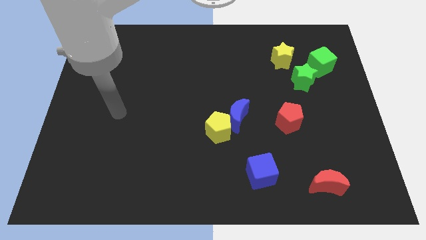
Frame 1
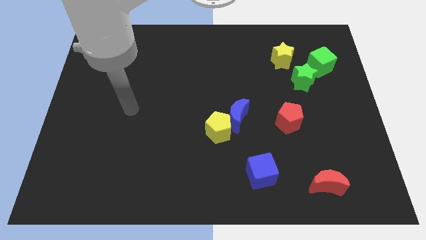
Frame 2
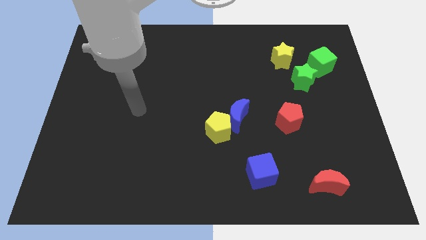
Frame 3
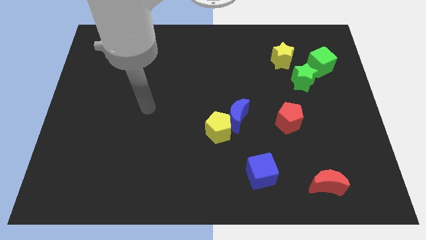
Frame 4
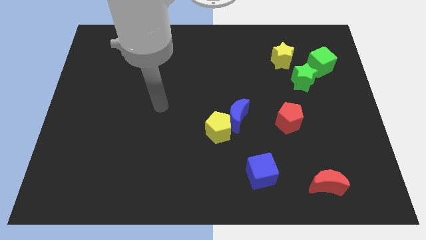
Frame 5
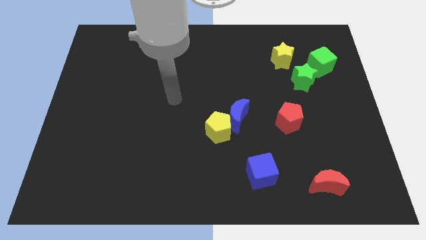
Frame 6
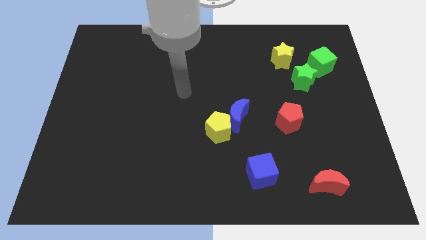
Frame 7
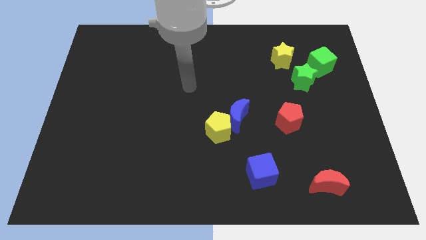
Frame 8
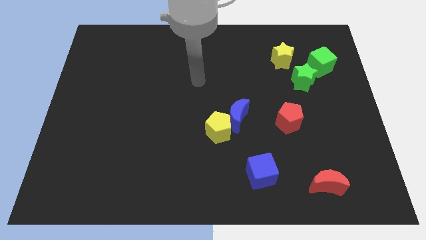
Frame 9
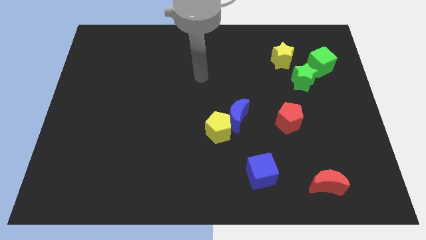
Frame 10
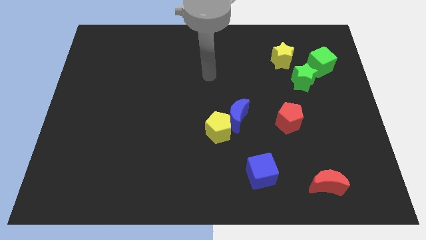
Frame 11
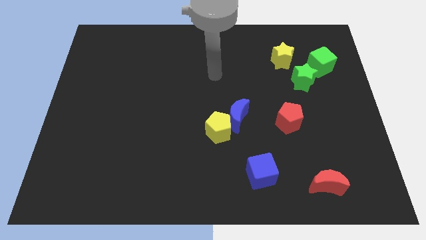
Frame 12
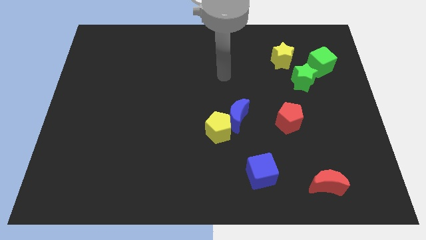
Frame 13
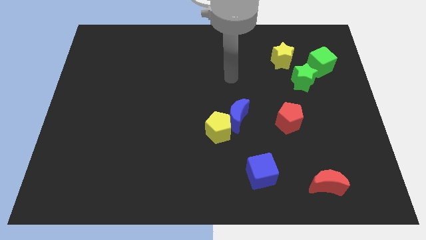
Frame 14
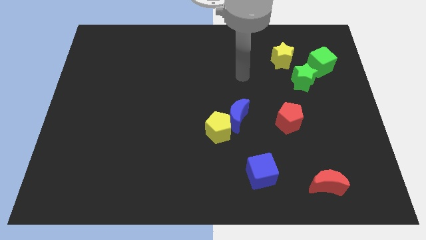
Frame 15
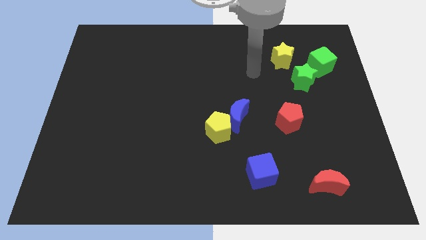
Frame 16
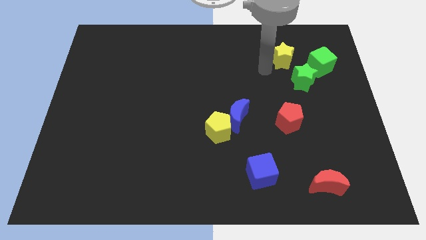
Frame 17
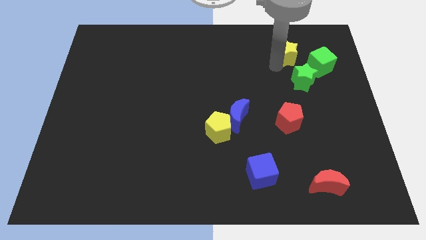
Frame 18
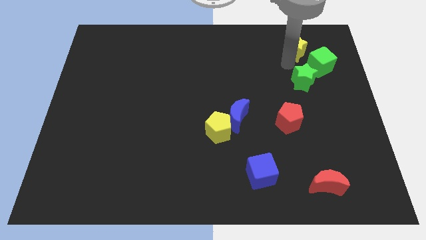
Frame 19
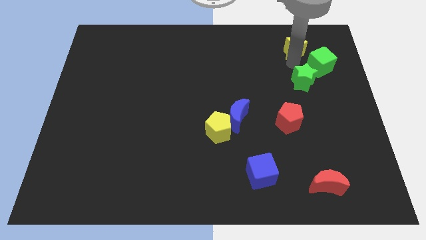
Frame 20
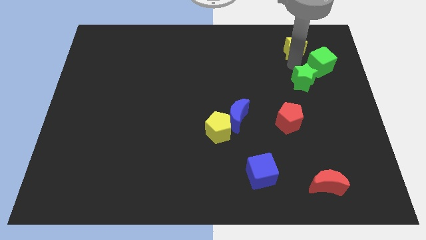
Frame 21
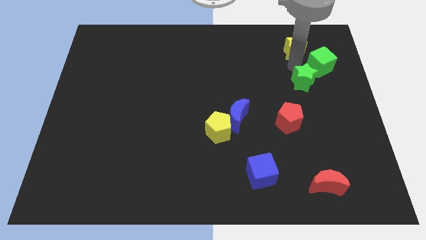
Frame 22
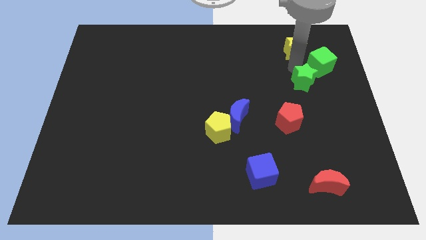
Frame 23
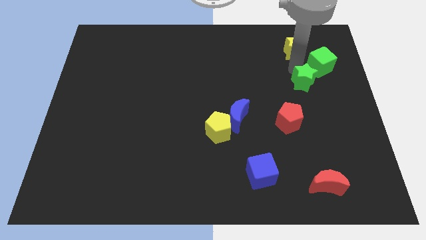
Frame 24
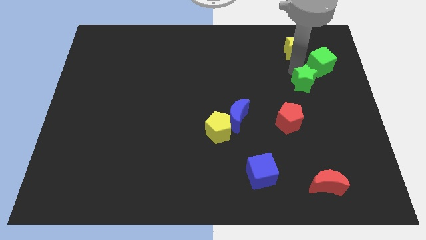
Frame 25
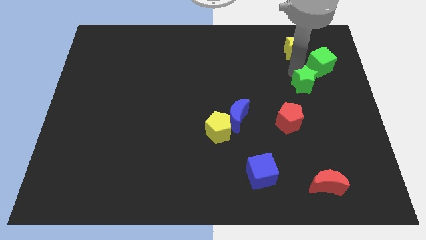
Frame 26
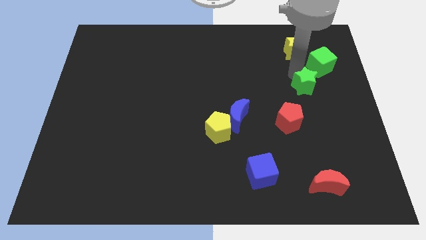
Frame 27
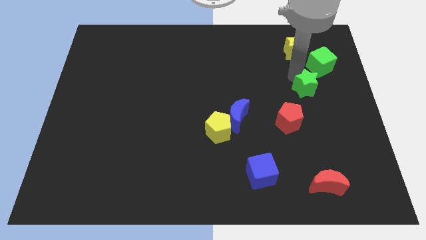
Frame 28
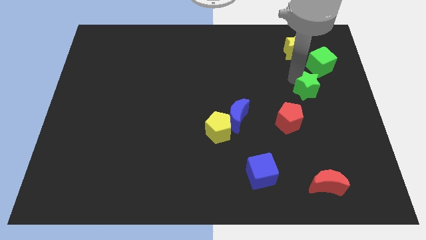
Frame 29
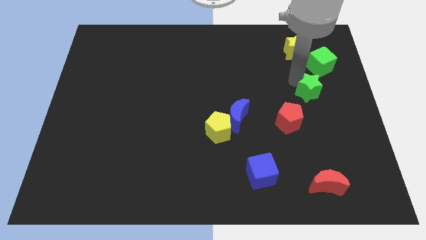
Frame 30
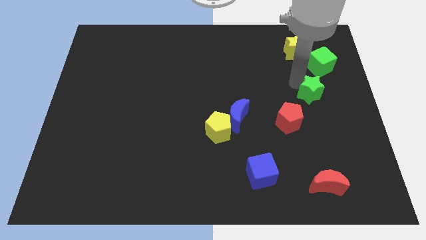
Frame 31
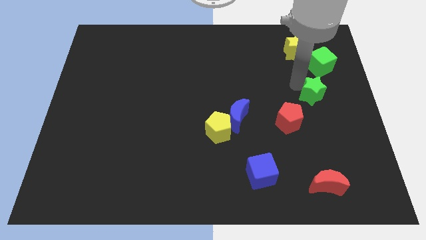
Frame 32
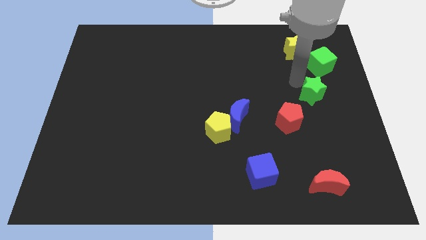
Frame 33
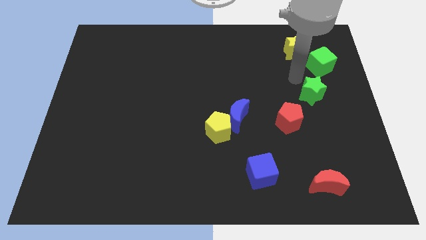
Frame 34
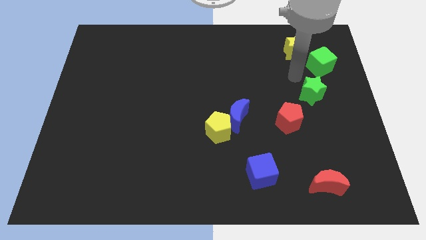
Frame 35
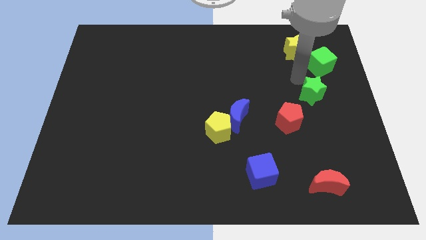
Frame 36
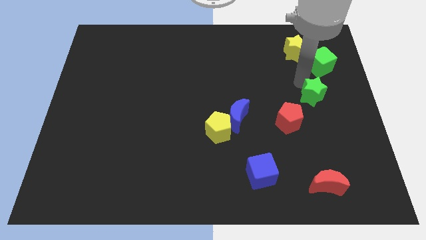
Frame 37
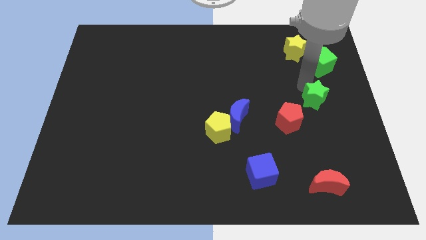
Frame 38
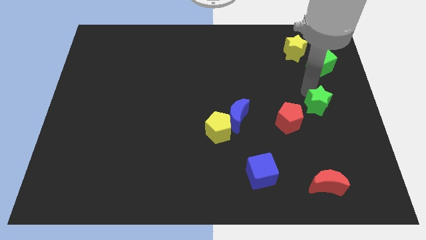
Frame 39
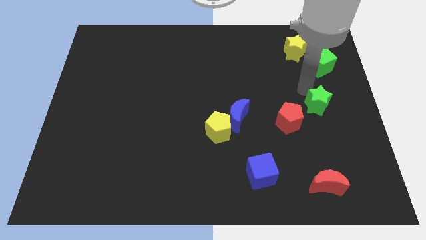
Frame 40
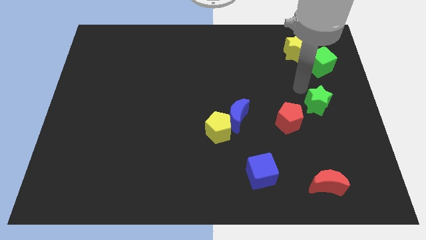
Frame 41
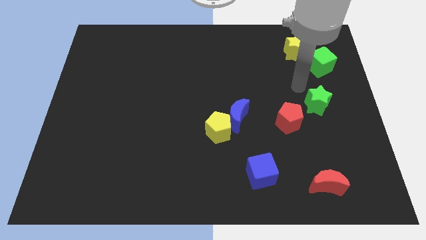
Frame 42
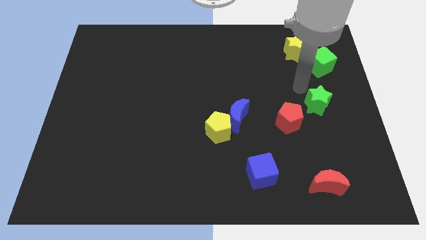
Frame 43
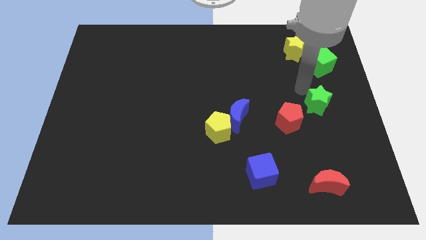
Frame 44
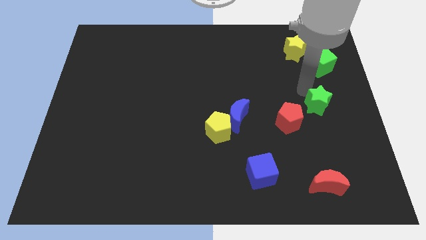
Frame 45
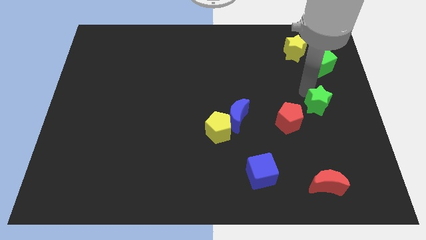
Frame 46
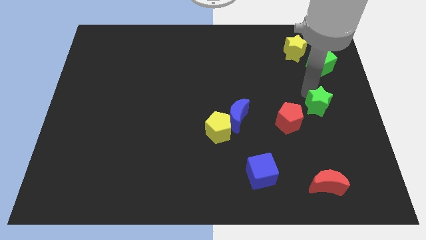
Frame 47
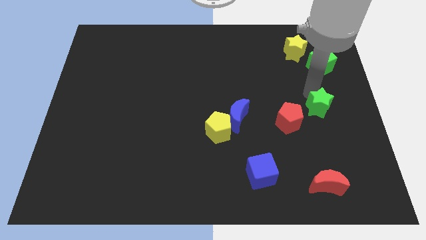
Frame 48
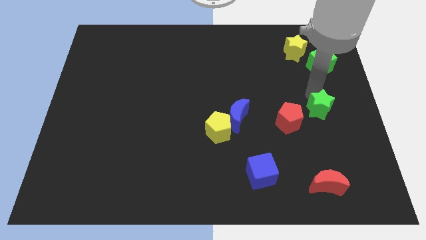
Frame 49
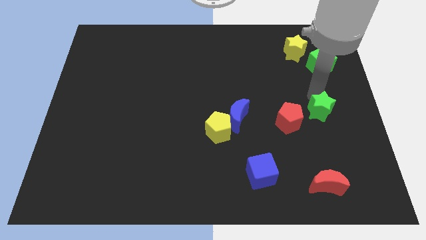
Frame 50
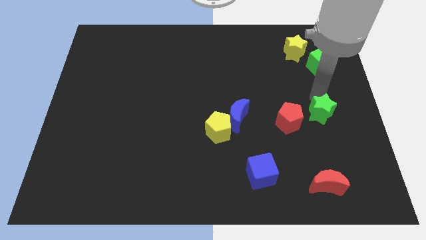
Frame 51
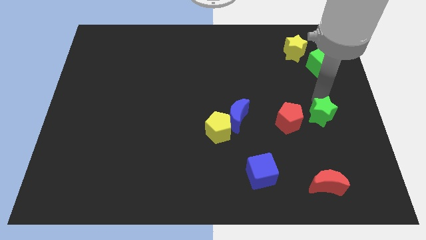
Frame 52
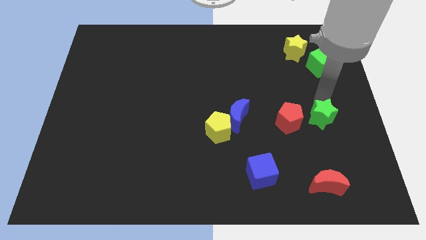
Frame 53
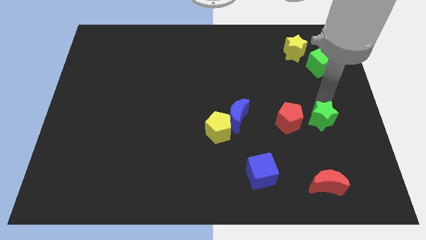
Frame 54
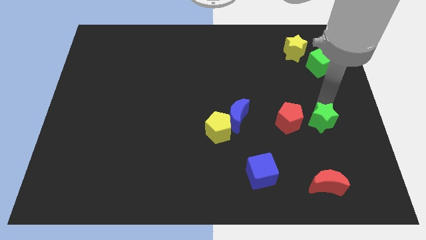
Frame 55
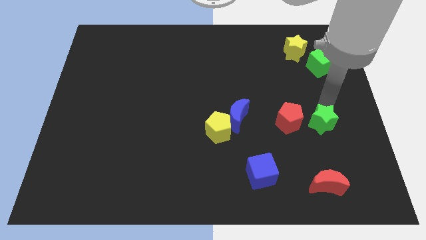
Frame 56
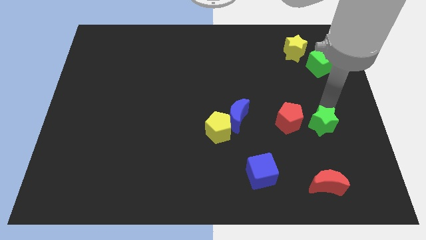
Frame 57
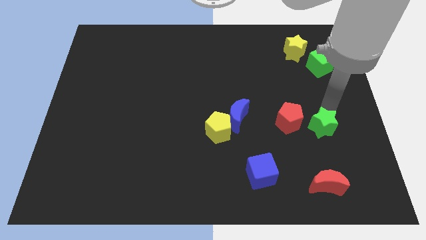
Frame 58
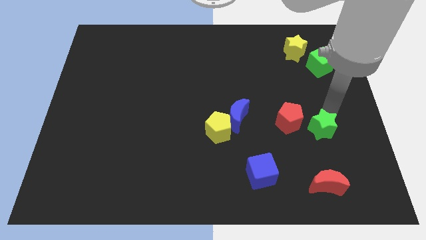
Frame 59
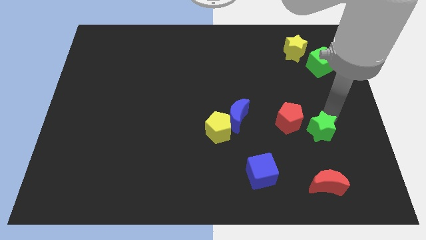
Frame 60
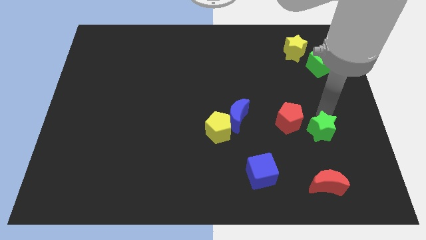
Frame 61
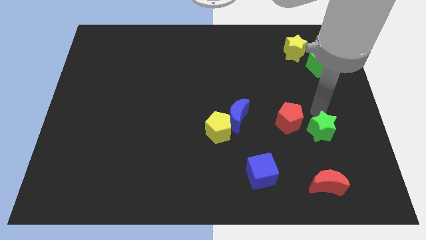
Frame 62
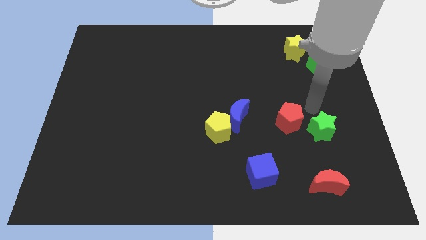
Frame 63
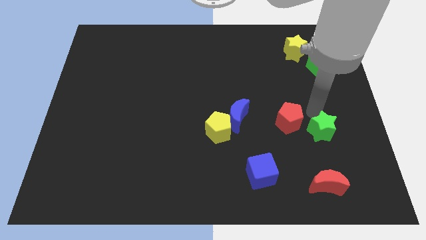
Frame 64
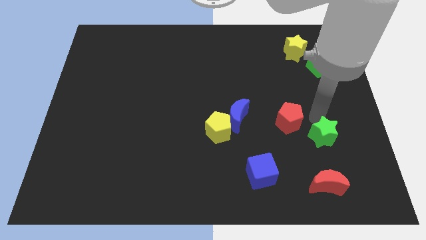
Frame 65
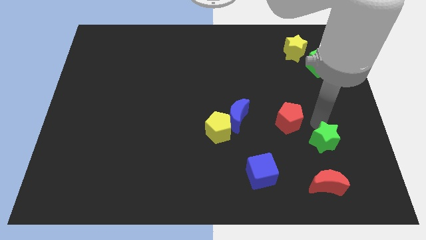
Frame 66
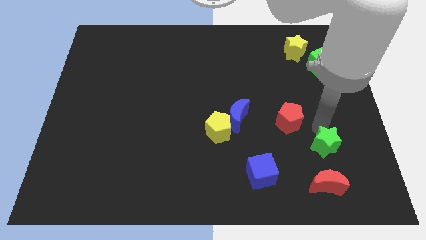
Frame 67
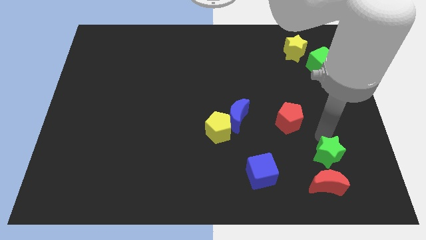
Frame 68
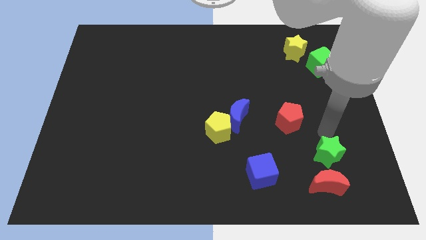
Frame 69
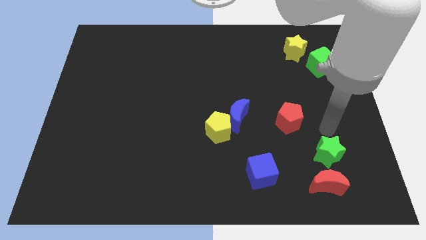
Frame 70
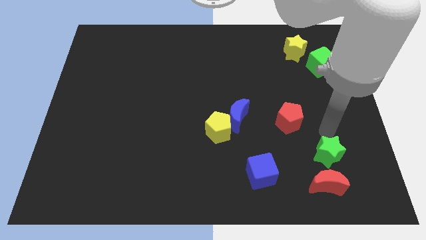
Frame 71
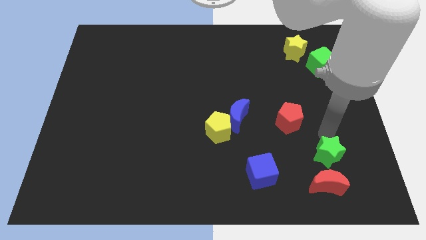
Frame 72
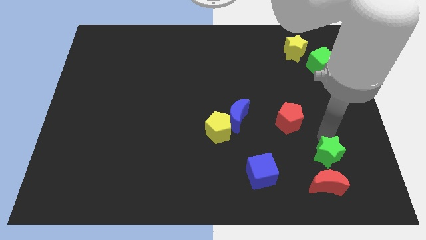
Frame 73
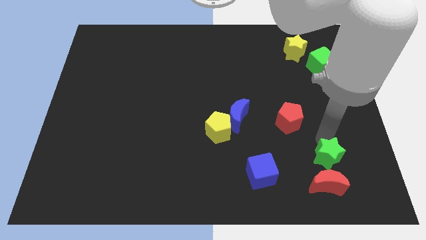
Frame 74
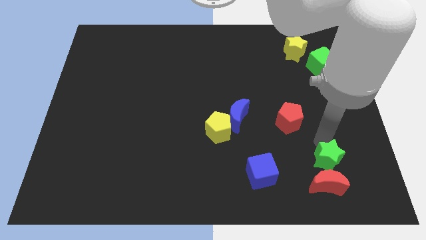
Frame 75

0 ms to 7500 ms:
put the green star to the red moon
